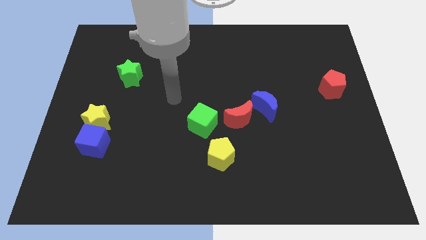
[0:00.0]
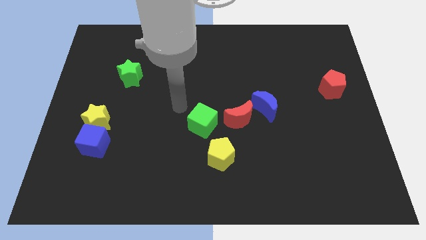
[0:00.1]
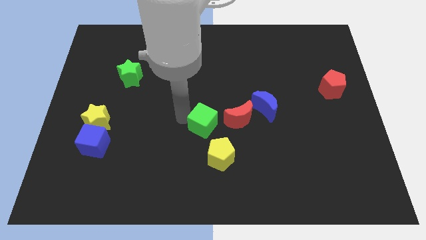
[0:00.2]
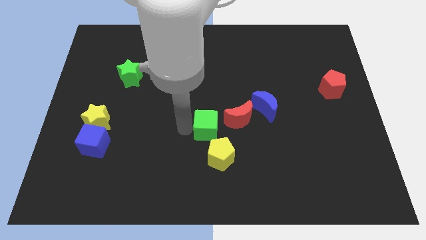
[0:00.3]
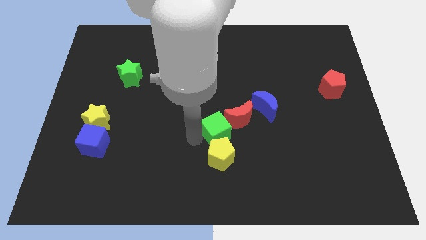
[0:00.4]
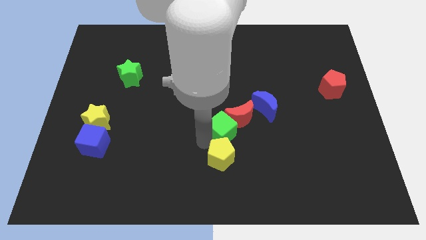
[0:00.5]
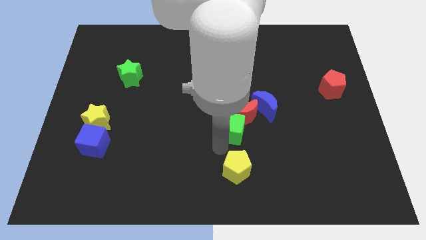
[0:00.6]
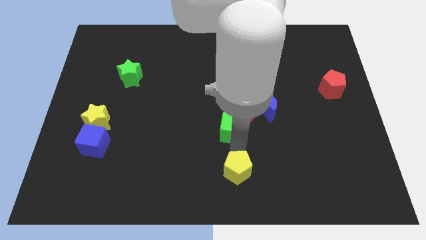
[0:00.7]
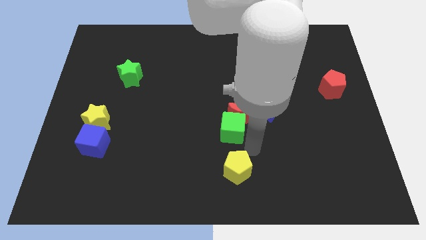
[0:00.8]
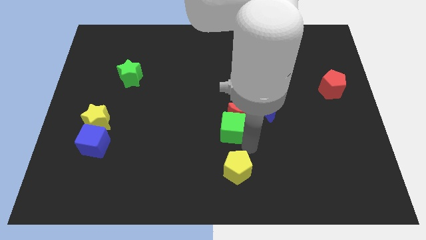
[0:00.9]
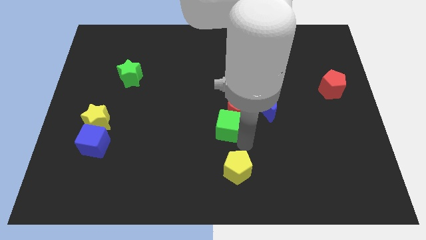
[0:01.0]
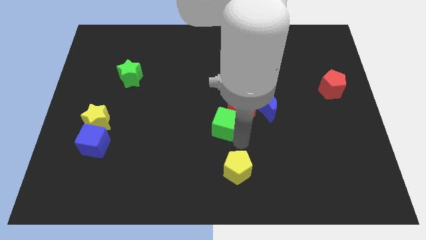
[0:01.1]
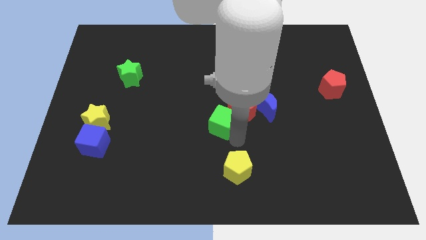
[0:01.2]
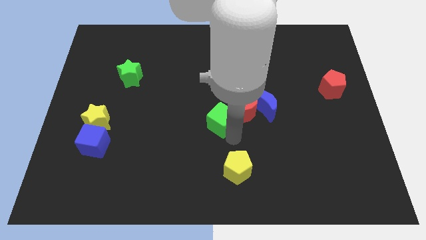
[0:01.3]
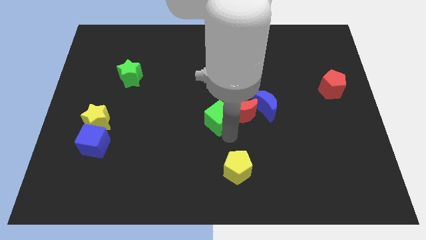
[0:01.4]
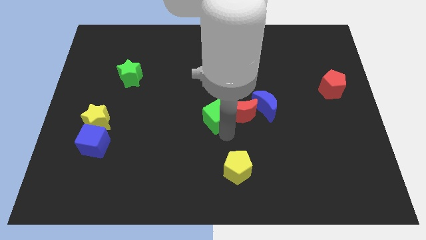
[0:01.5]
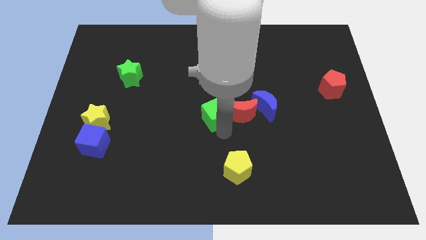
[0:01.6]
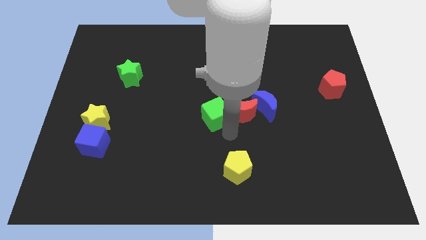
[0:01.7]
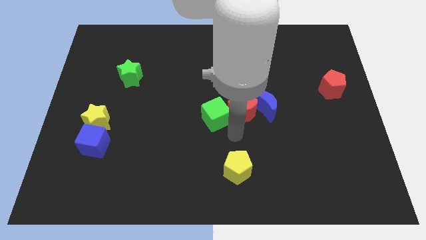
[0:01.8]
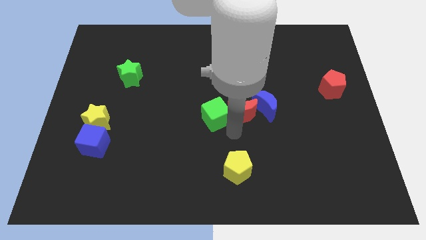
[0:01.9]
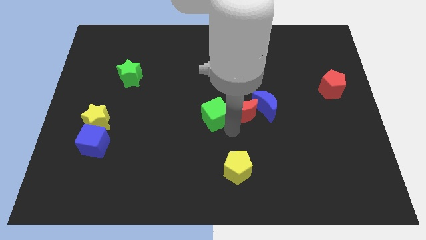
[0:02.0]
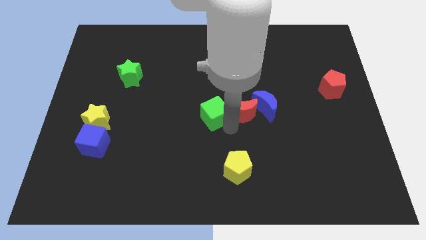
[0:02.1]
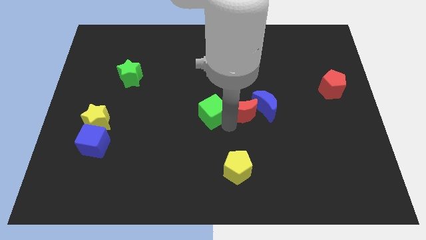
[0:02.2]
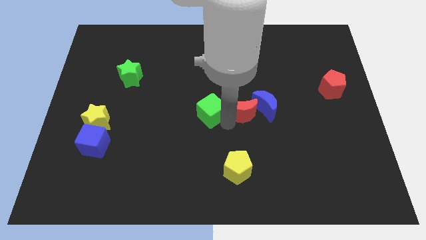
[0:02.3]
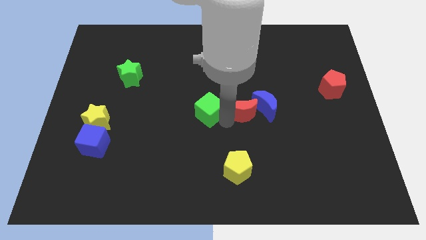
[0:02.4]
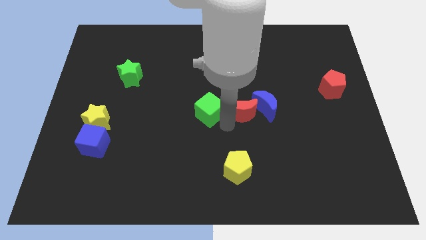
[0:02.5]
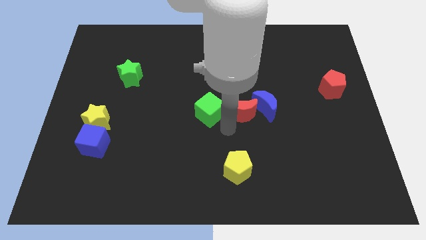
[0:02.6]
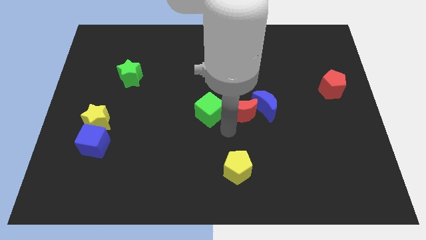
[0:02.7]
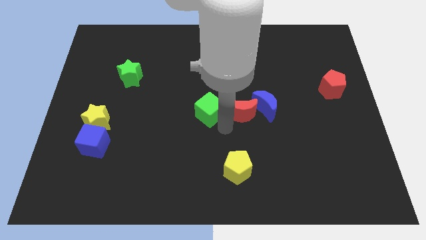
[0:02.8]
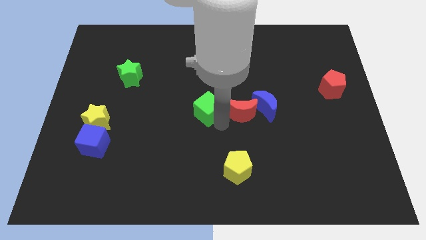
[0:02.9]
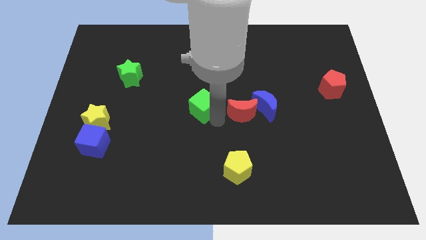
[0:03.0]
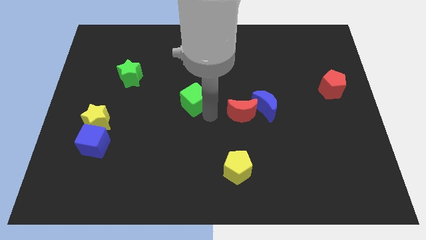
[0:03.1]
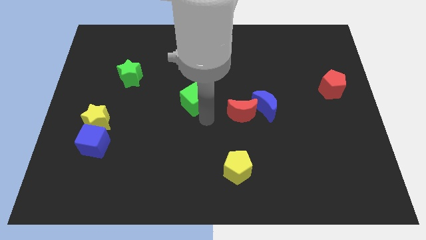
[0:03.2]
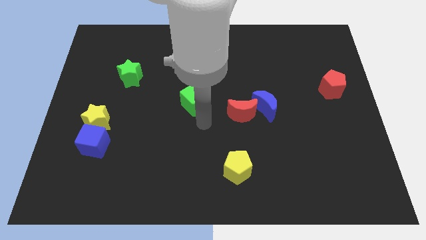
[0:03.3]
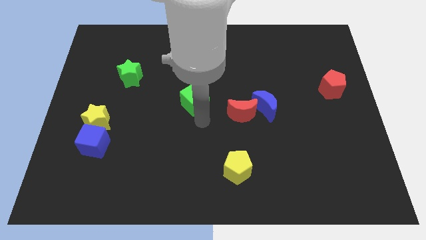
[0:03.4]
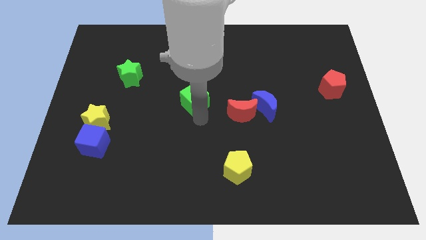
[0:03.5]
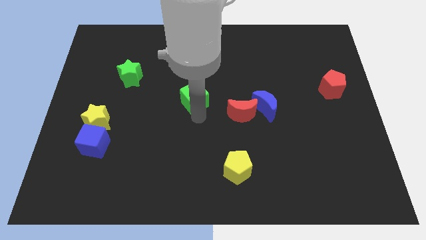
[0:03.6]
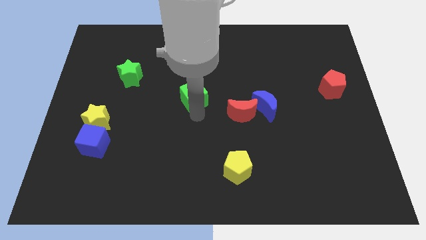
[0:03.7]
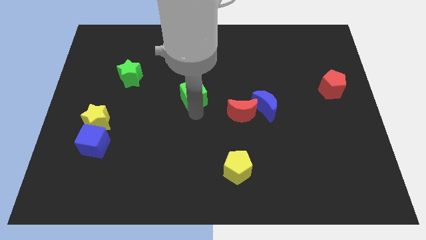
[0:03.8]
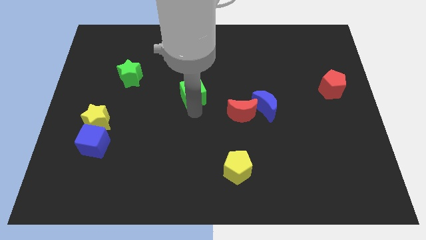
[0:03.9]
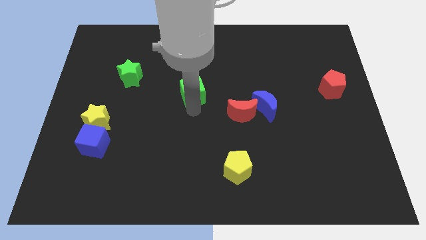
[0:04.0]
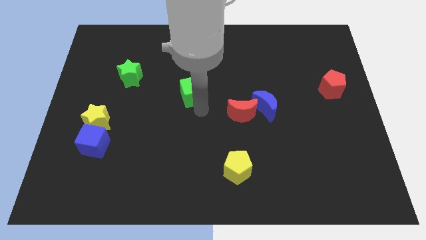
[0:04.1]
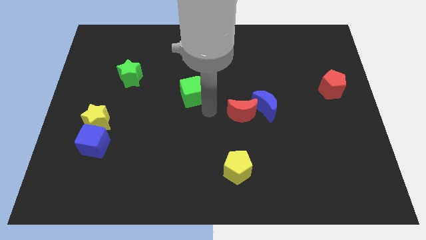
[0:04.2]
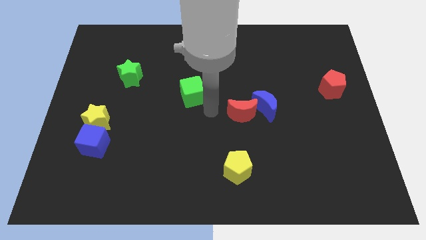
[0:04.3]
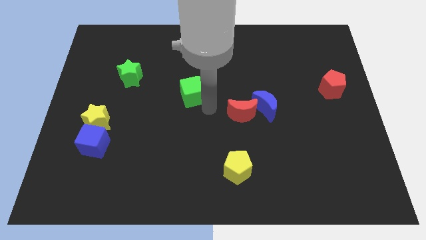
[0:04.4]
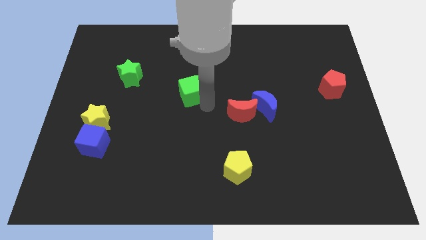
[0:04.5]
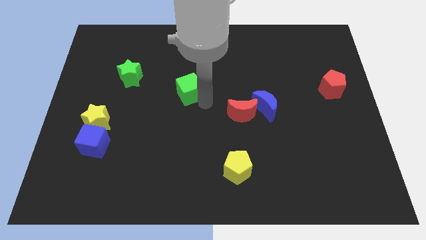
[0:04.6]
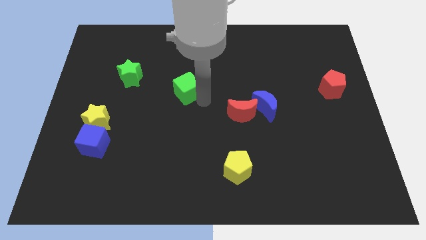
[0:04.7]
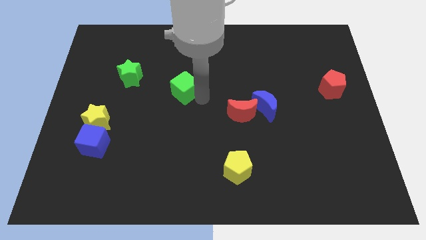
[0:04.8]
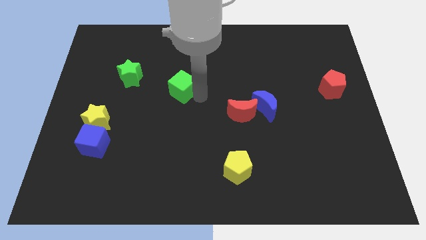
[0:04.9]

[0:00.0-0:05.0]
push the green cube right of the green star

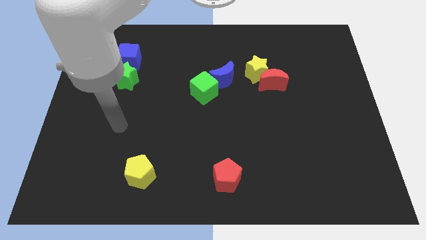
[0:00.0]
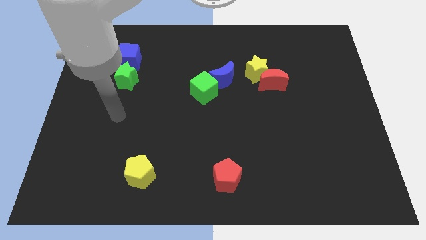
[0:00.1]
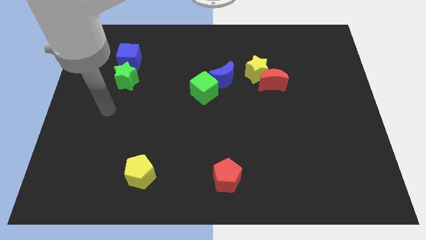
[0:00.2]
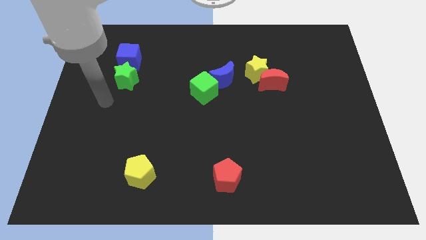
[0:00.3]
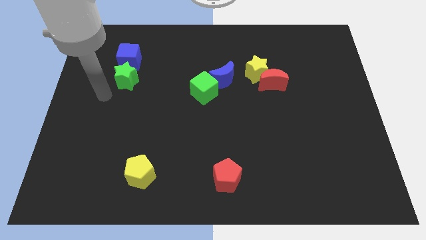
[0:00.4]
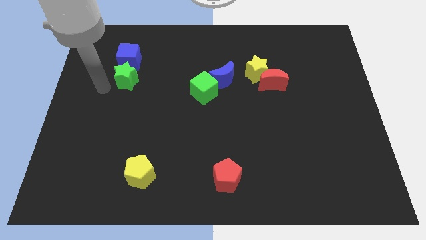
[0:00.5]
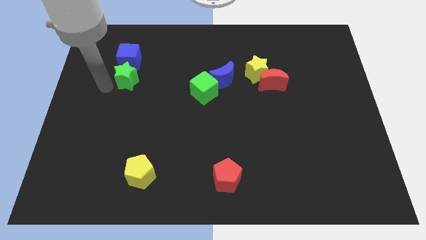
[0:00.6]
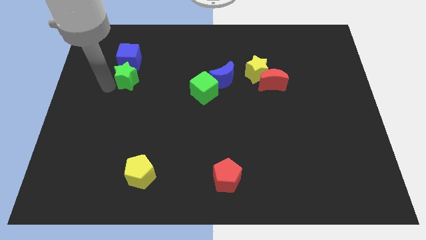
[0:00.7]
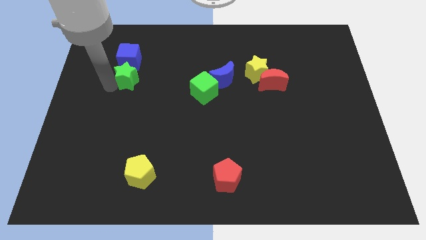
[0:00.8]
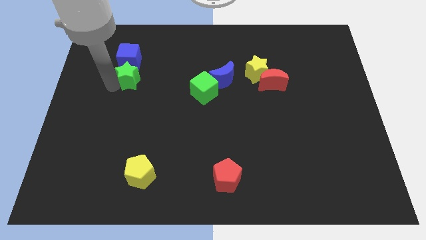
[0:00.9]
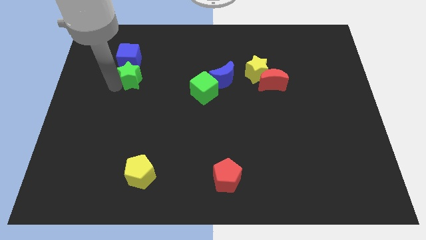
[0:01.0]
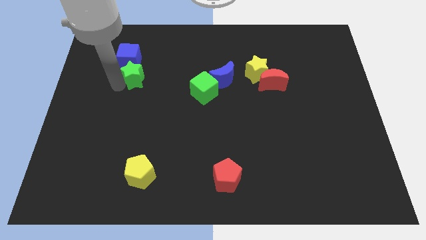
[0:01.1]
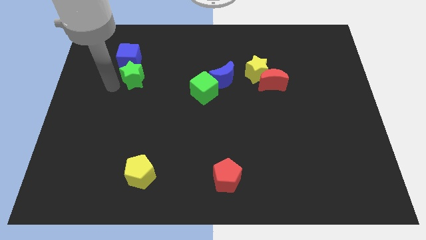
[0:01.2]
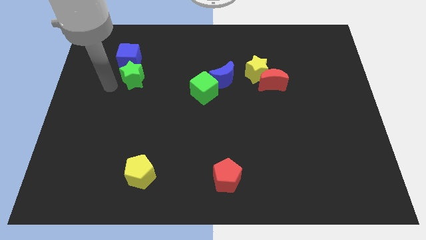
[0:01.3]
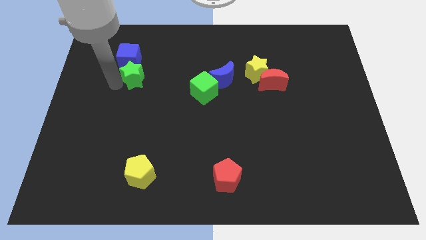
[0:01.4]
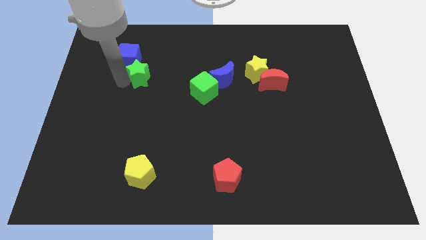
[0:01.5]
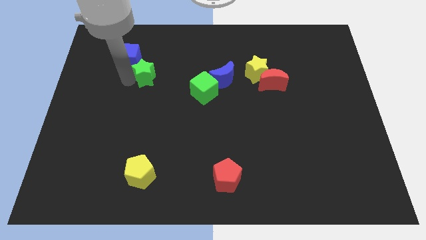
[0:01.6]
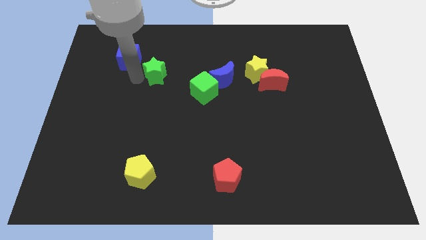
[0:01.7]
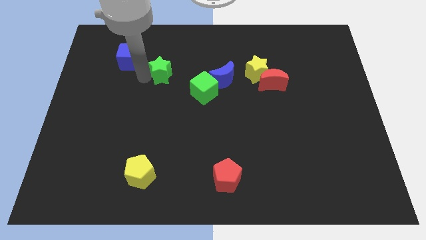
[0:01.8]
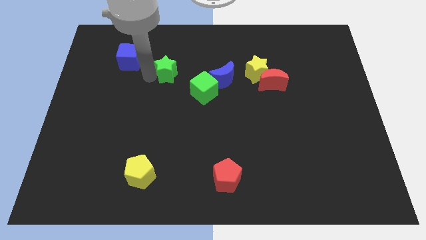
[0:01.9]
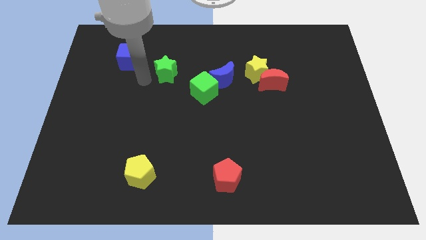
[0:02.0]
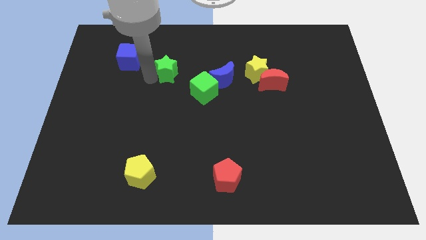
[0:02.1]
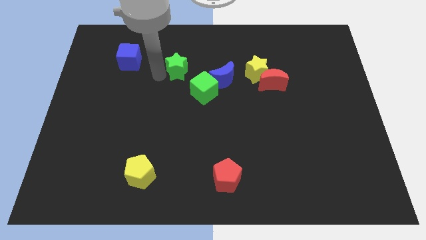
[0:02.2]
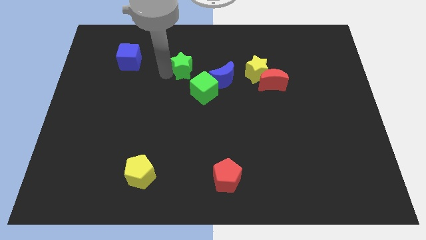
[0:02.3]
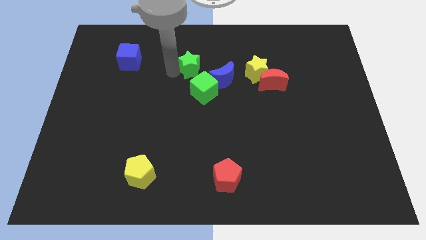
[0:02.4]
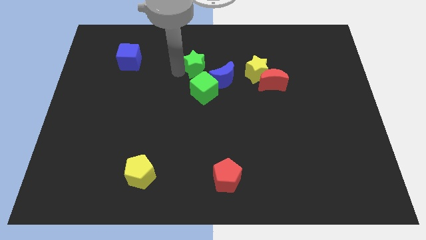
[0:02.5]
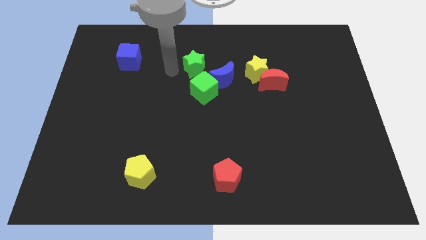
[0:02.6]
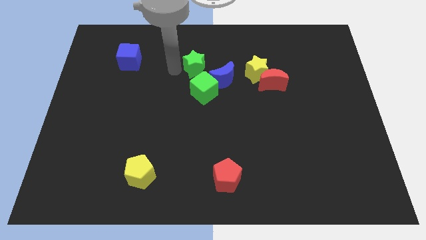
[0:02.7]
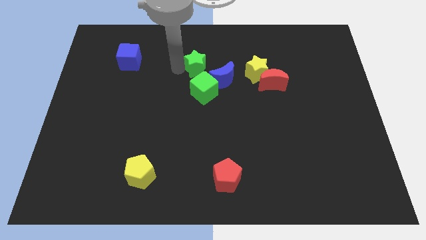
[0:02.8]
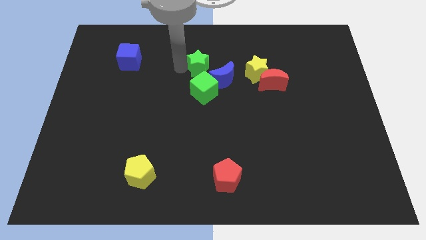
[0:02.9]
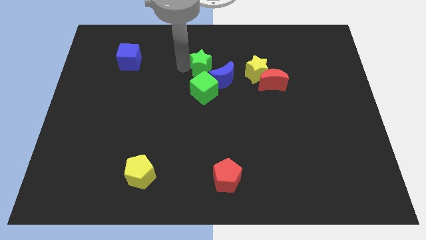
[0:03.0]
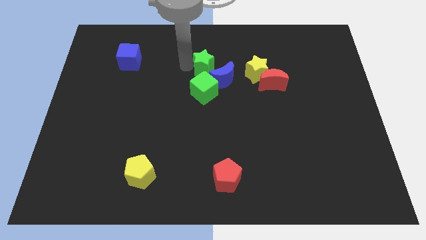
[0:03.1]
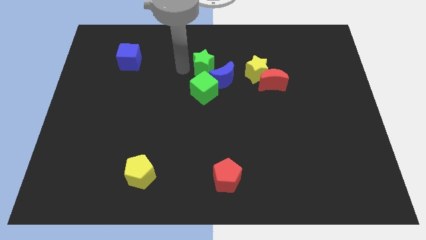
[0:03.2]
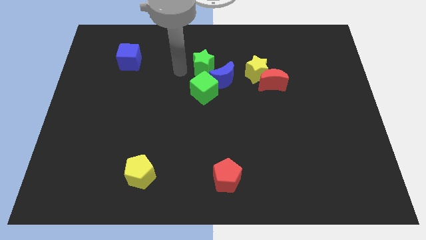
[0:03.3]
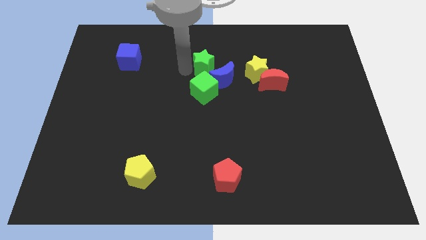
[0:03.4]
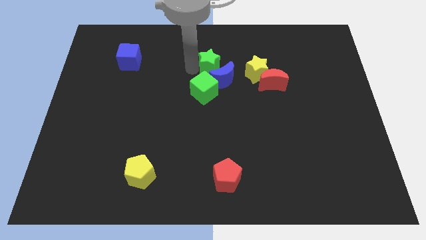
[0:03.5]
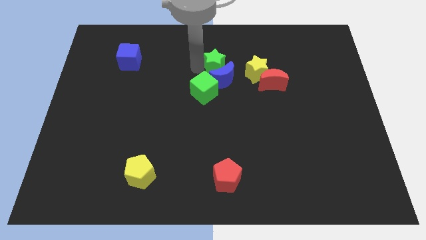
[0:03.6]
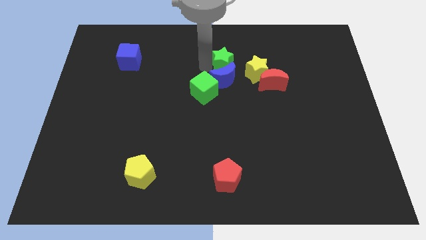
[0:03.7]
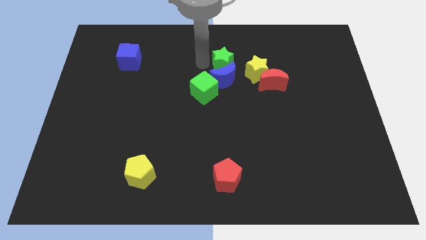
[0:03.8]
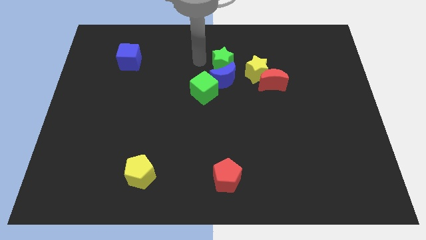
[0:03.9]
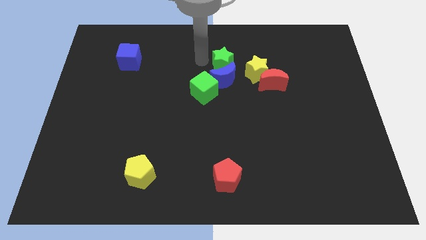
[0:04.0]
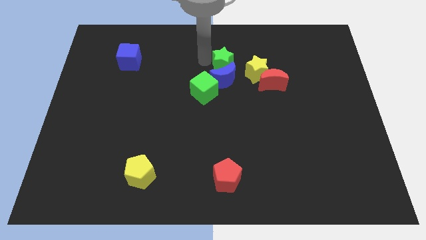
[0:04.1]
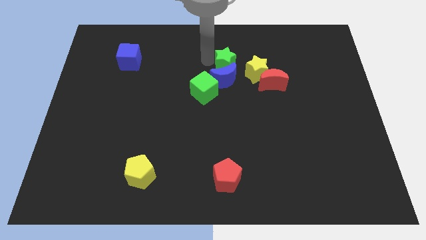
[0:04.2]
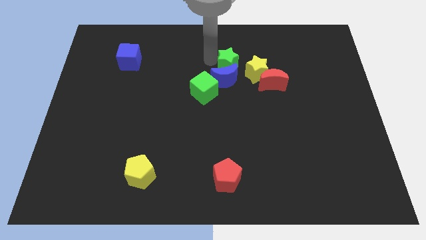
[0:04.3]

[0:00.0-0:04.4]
put the green star diagonally up and to the left of the red moon
